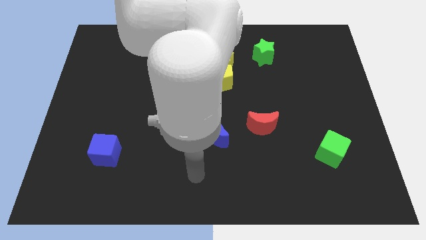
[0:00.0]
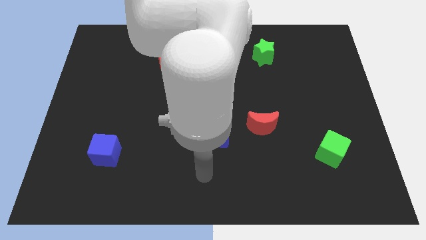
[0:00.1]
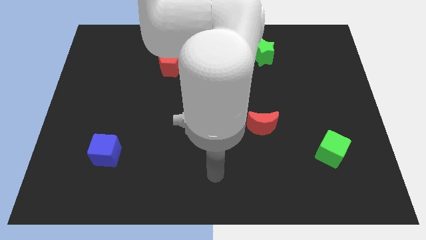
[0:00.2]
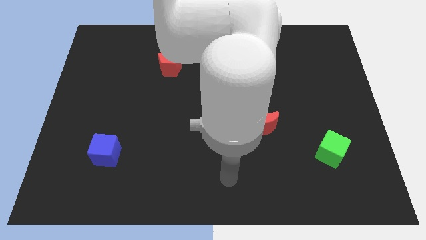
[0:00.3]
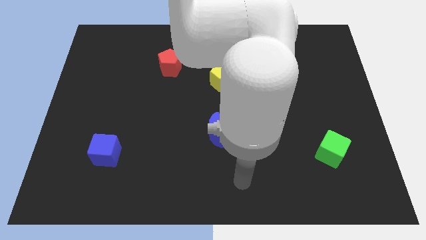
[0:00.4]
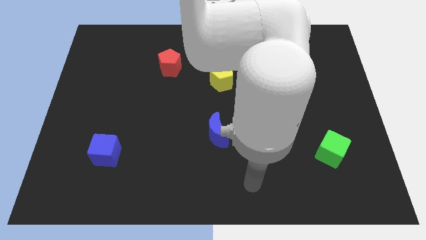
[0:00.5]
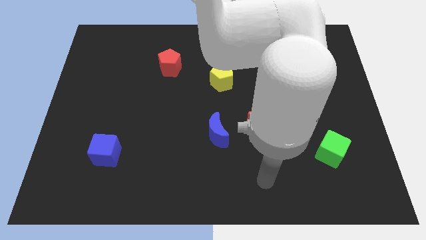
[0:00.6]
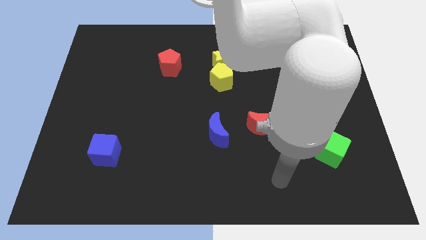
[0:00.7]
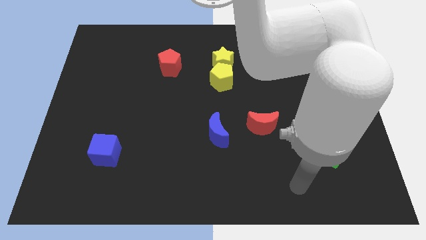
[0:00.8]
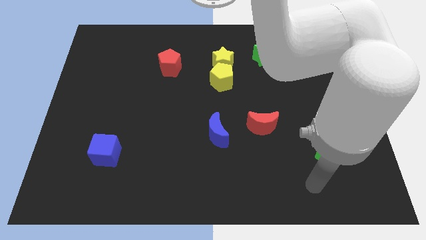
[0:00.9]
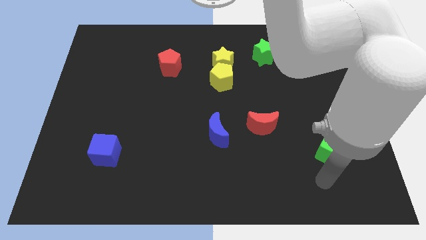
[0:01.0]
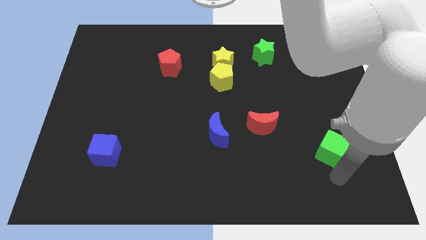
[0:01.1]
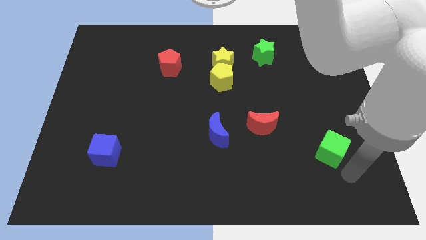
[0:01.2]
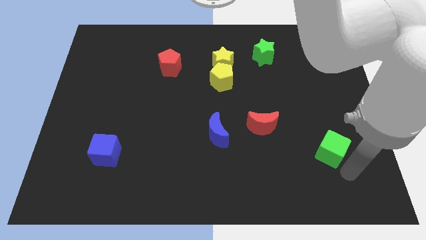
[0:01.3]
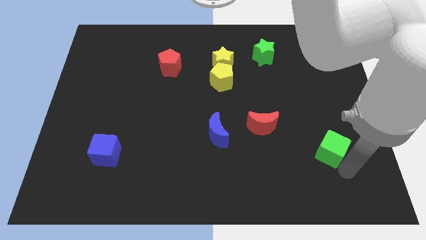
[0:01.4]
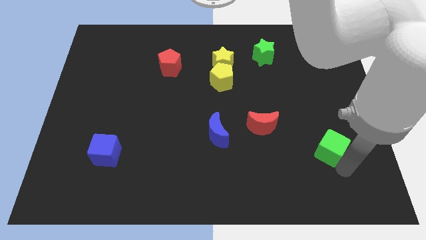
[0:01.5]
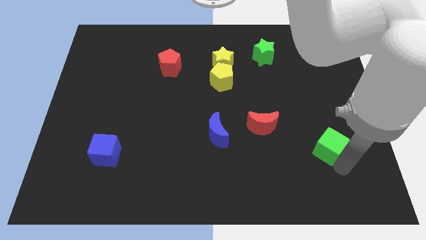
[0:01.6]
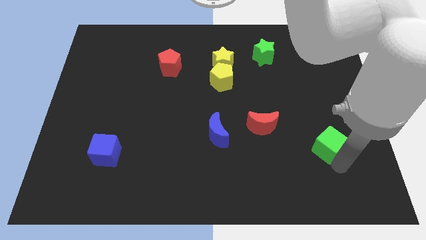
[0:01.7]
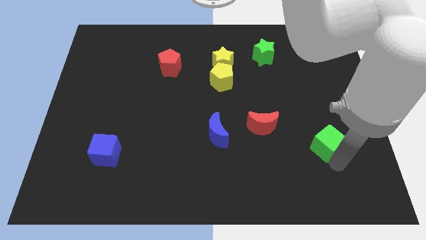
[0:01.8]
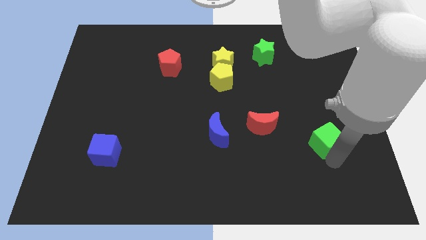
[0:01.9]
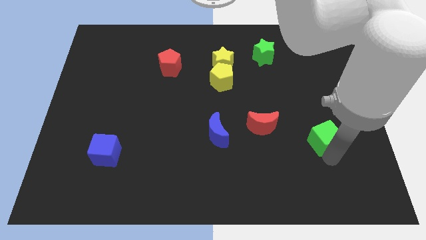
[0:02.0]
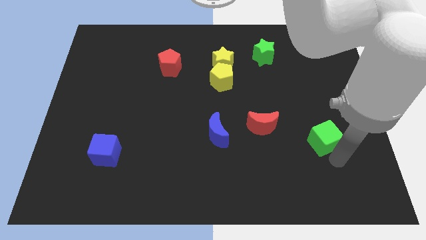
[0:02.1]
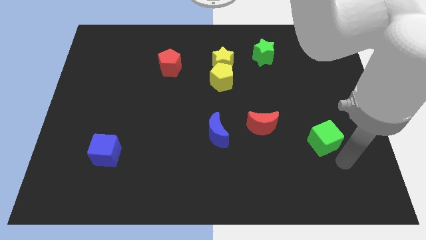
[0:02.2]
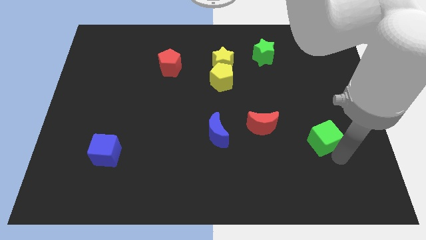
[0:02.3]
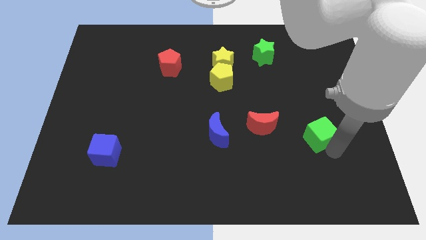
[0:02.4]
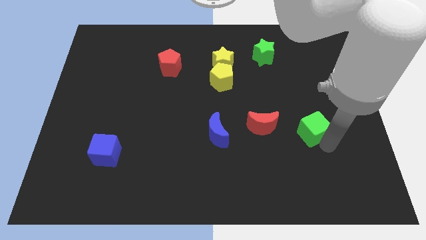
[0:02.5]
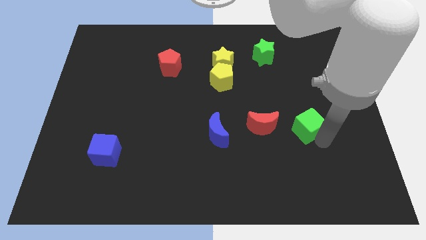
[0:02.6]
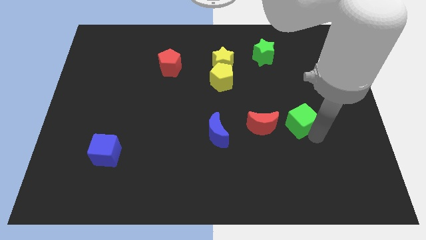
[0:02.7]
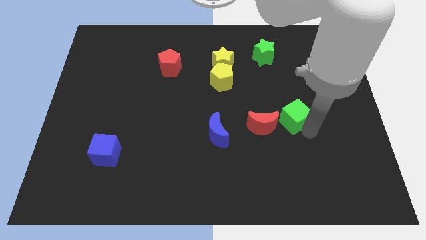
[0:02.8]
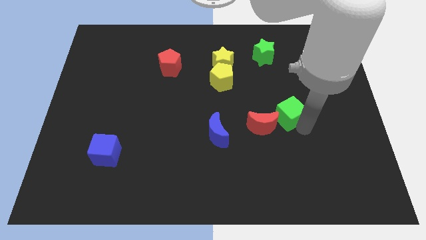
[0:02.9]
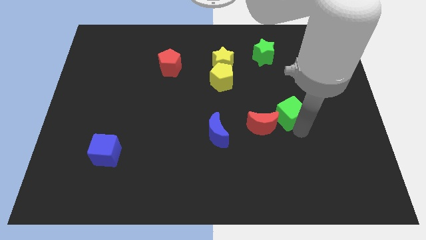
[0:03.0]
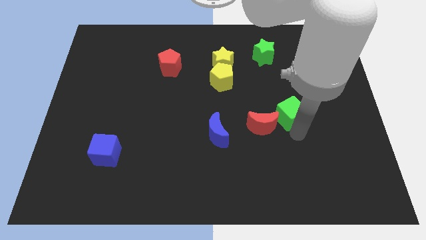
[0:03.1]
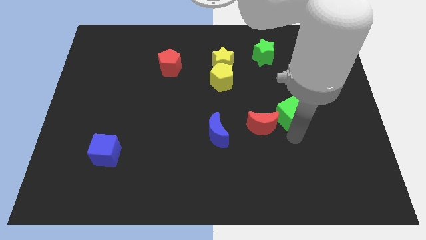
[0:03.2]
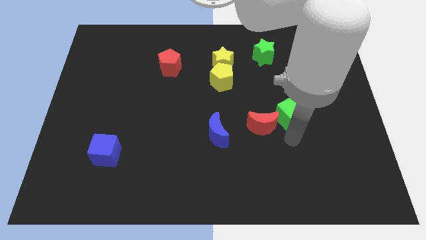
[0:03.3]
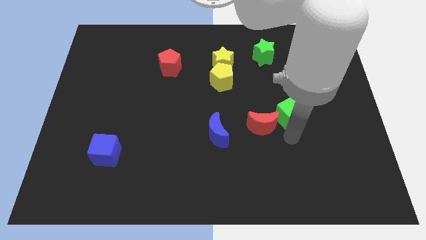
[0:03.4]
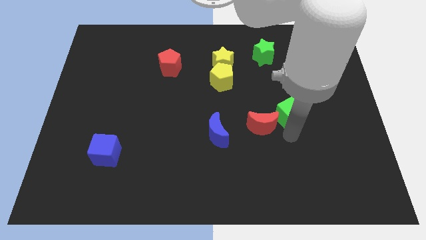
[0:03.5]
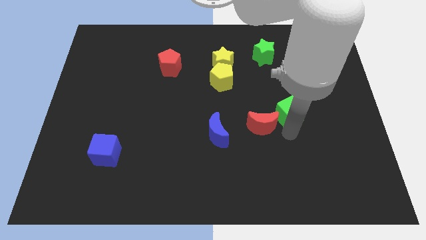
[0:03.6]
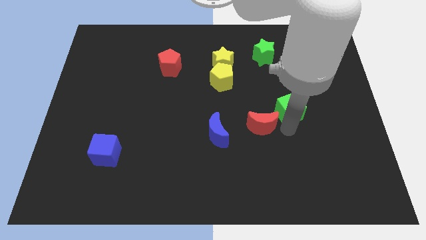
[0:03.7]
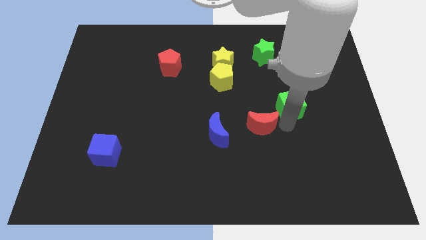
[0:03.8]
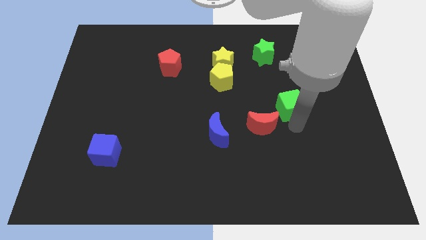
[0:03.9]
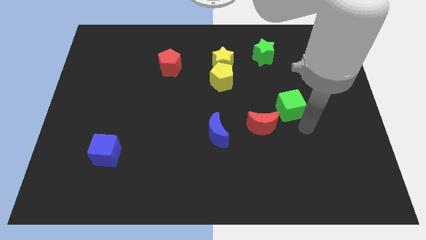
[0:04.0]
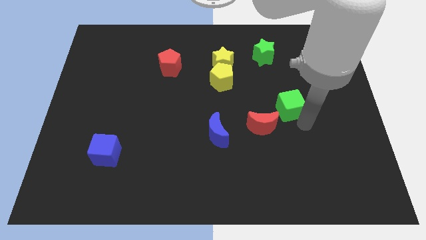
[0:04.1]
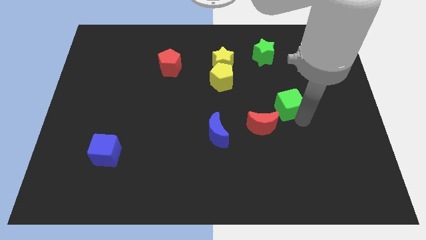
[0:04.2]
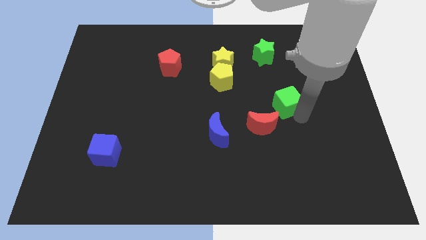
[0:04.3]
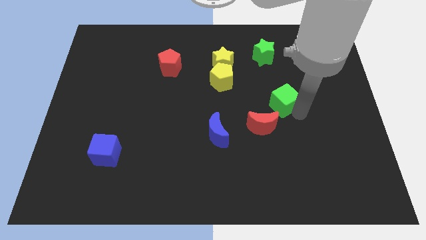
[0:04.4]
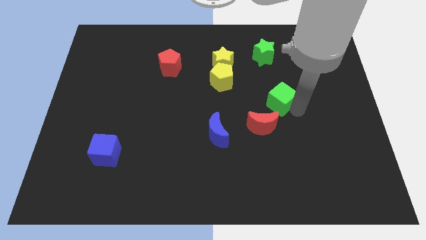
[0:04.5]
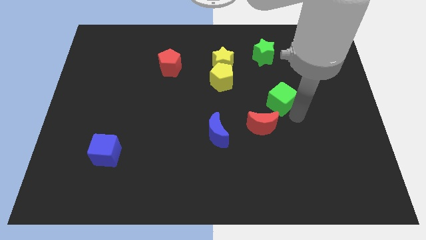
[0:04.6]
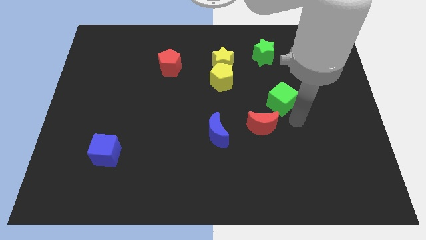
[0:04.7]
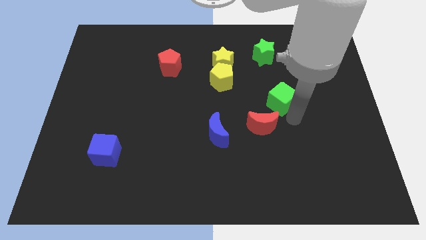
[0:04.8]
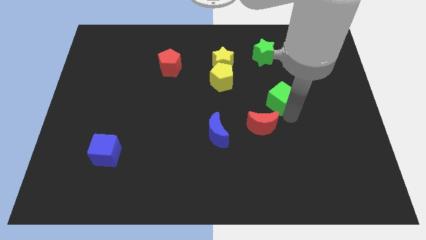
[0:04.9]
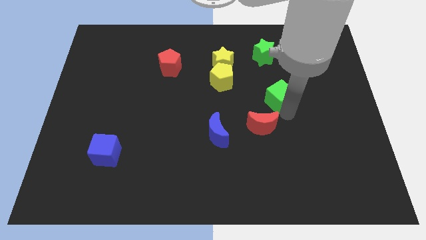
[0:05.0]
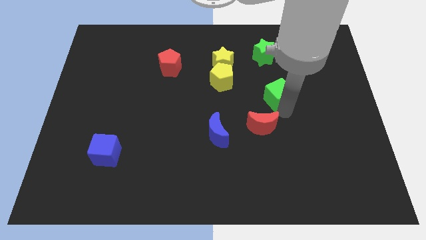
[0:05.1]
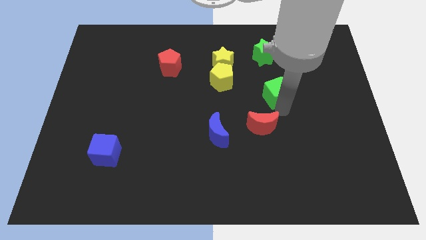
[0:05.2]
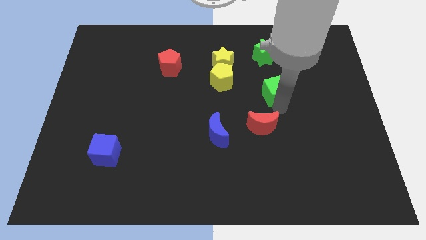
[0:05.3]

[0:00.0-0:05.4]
put the green cube right of the yellow pentagon

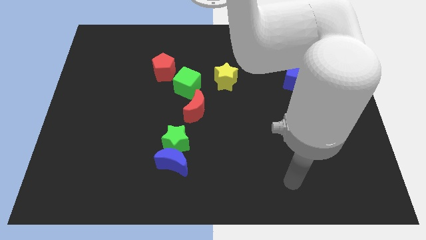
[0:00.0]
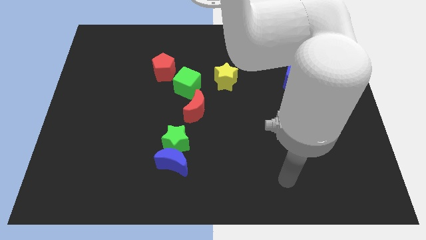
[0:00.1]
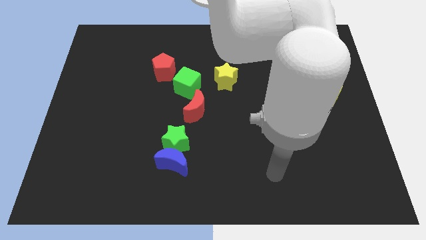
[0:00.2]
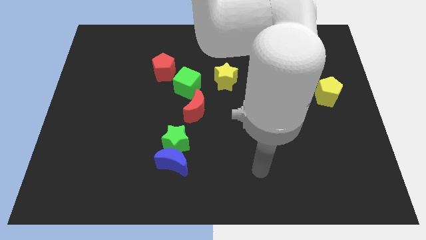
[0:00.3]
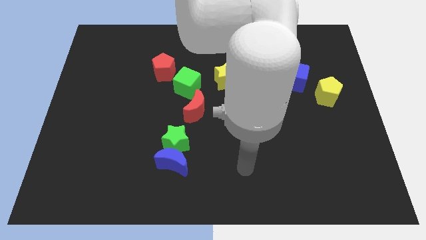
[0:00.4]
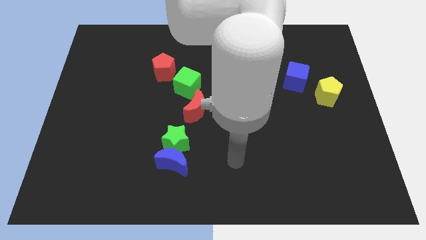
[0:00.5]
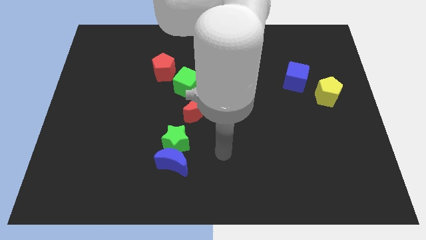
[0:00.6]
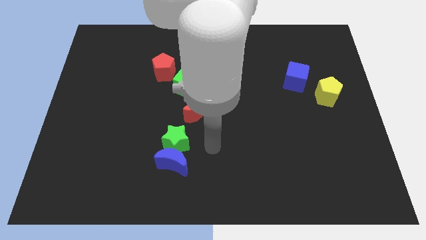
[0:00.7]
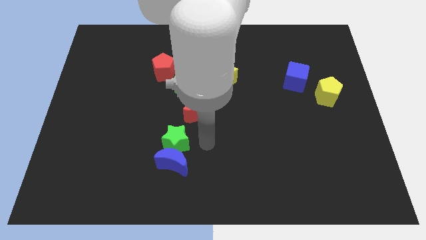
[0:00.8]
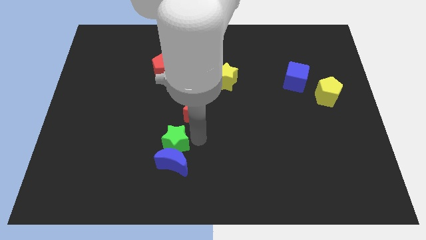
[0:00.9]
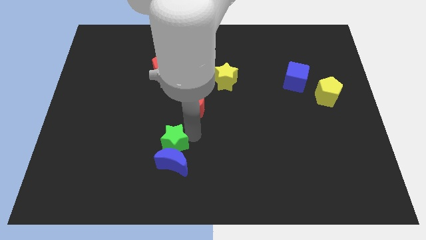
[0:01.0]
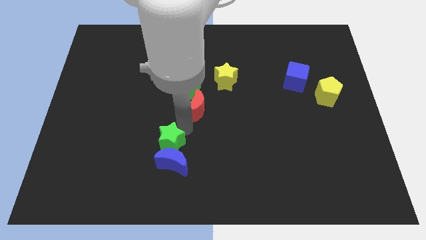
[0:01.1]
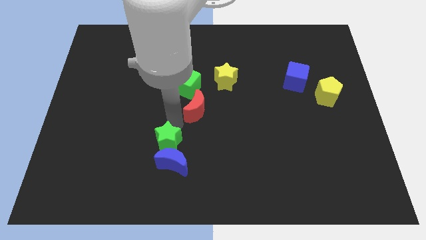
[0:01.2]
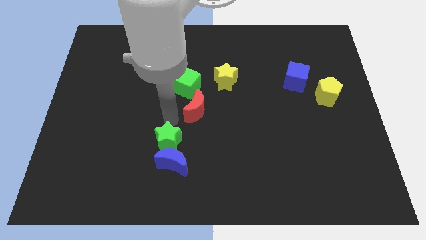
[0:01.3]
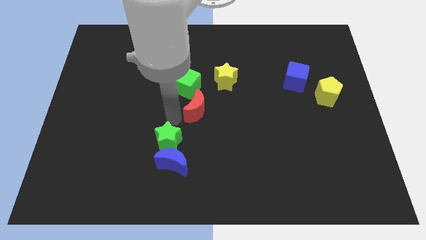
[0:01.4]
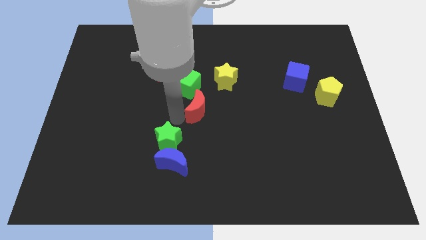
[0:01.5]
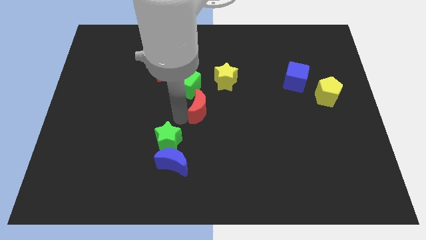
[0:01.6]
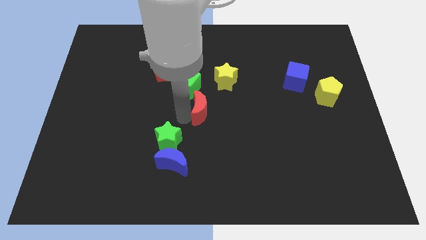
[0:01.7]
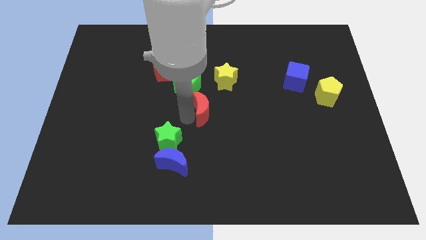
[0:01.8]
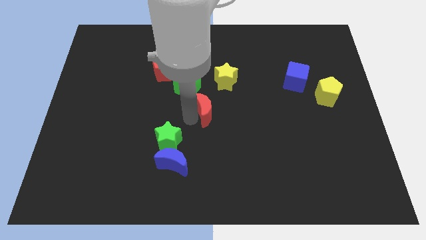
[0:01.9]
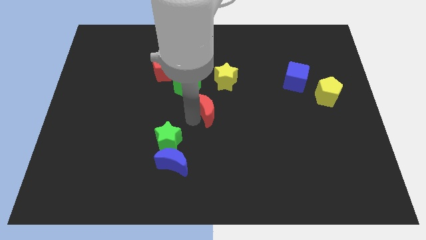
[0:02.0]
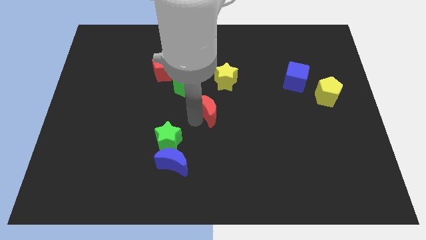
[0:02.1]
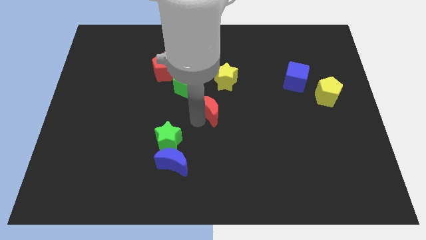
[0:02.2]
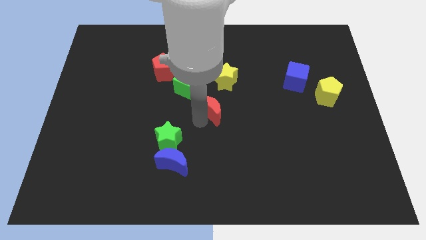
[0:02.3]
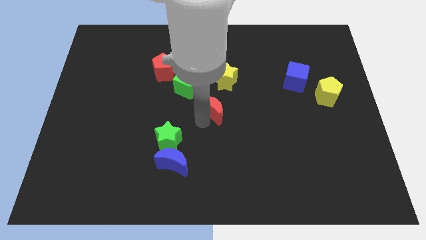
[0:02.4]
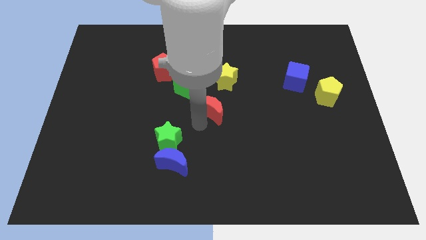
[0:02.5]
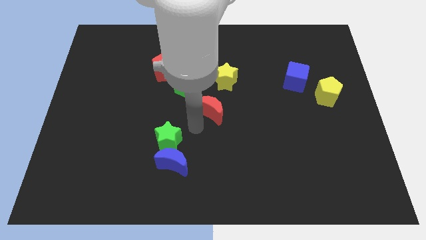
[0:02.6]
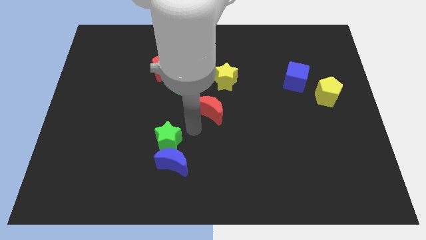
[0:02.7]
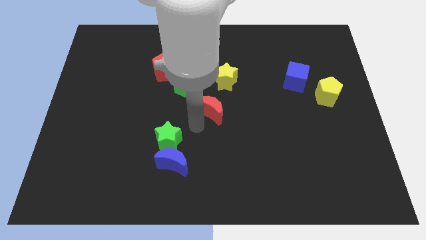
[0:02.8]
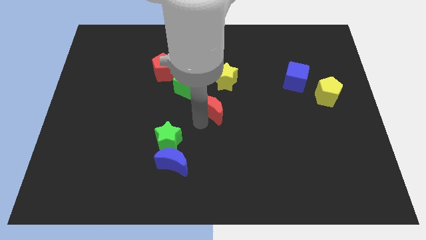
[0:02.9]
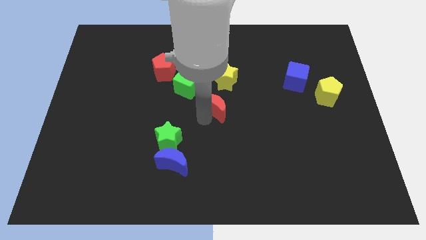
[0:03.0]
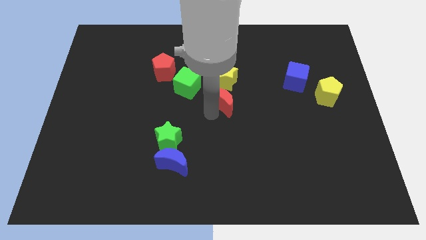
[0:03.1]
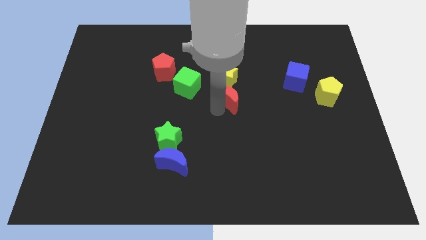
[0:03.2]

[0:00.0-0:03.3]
put the red moon right of the green cube
